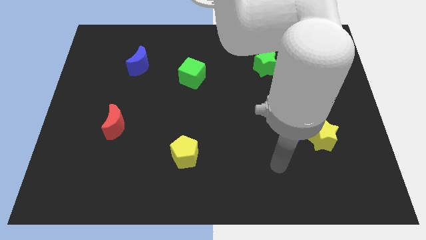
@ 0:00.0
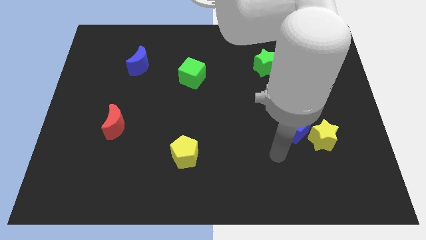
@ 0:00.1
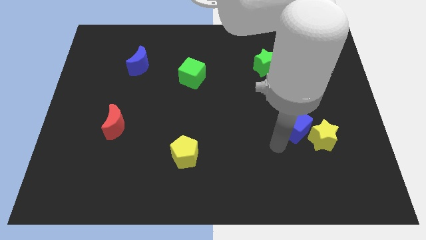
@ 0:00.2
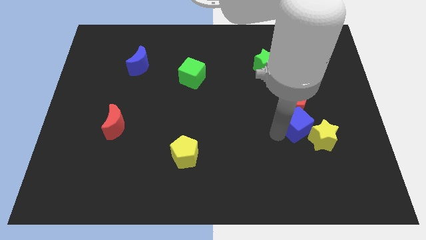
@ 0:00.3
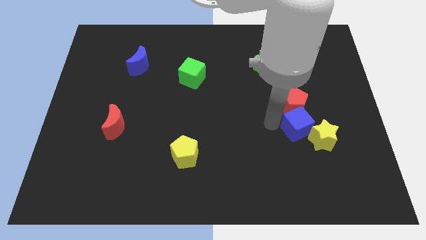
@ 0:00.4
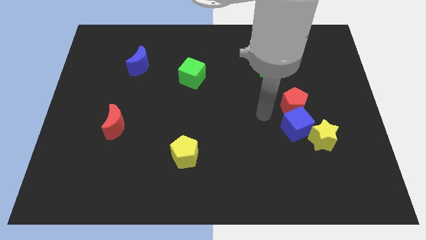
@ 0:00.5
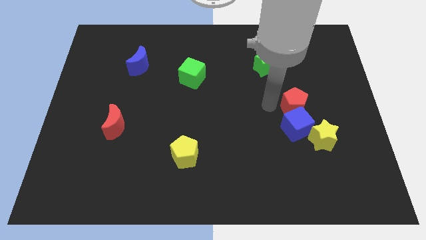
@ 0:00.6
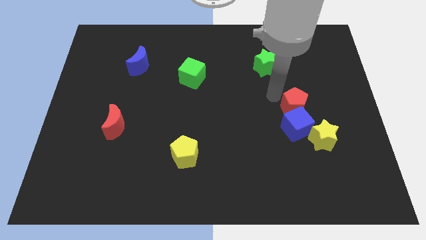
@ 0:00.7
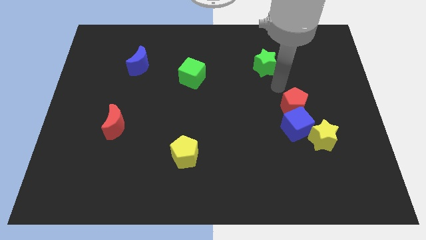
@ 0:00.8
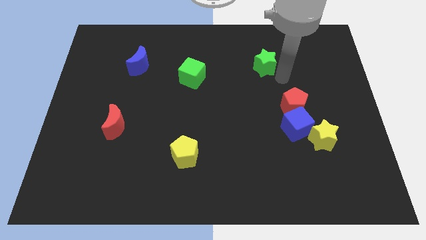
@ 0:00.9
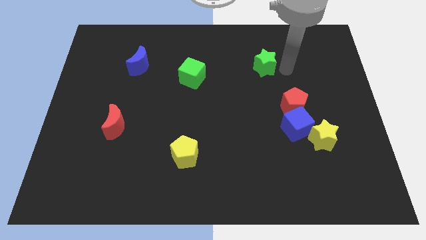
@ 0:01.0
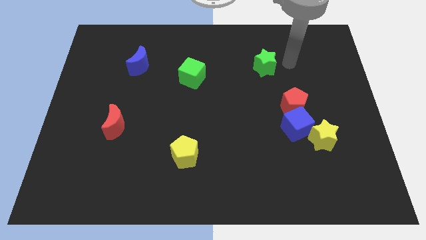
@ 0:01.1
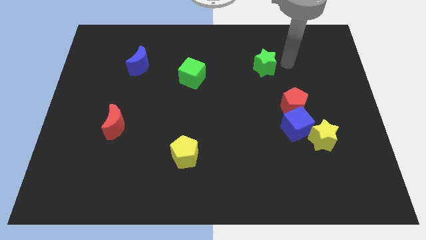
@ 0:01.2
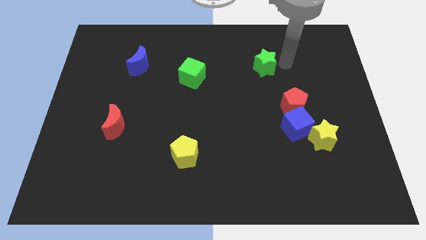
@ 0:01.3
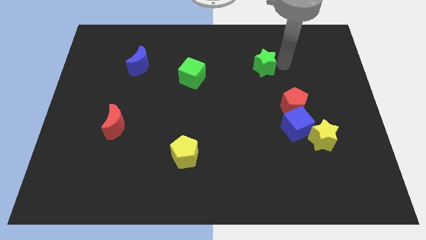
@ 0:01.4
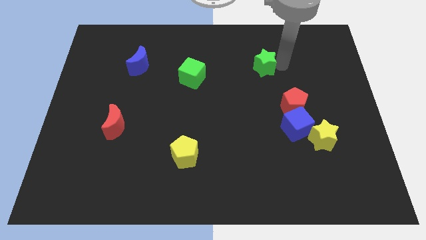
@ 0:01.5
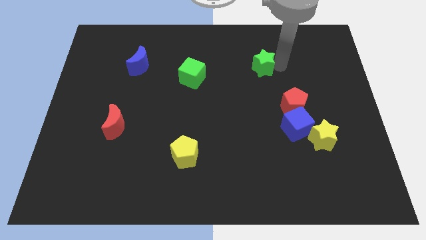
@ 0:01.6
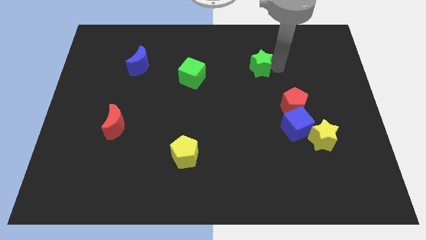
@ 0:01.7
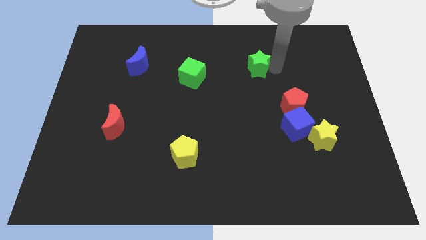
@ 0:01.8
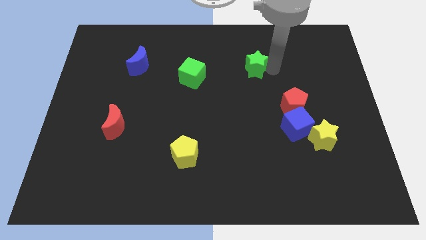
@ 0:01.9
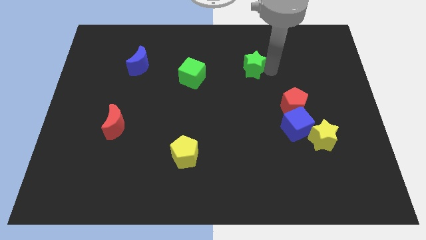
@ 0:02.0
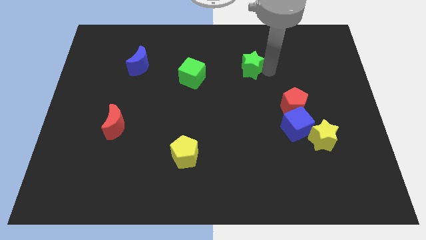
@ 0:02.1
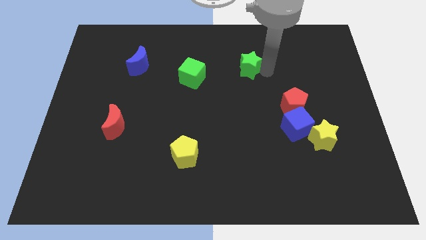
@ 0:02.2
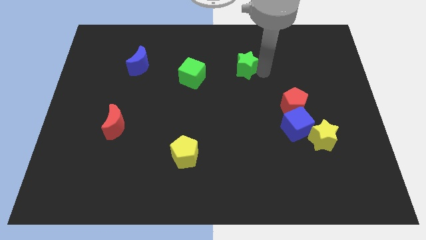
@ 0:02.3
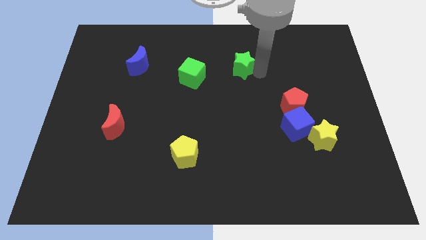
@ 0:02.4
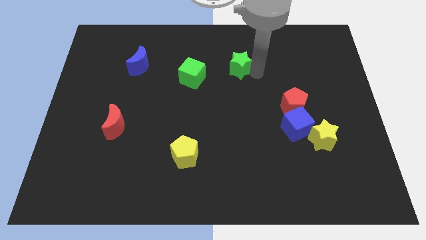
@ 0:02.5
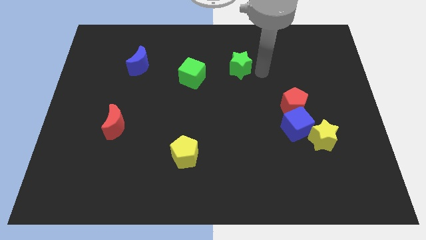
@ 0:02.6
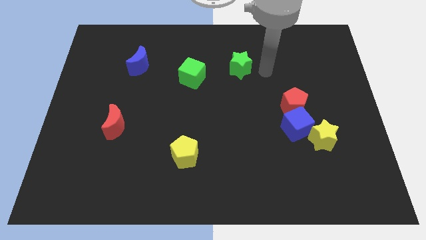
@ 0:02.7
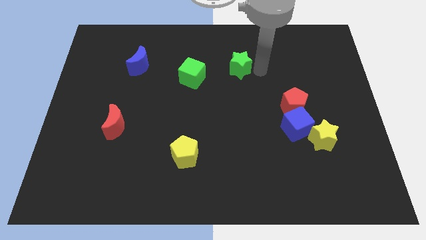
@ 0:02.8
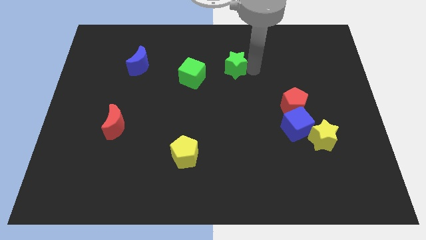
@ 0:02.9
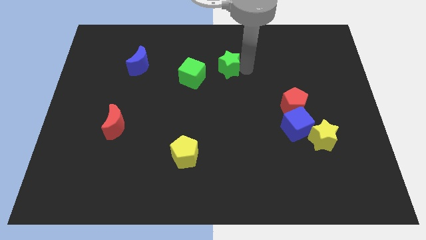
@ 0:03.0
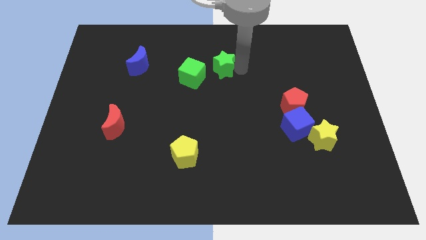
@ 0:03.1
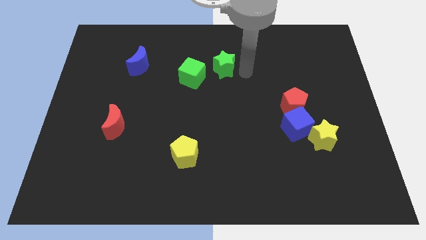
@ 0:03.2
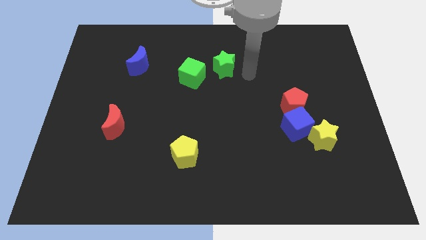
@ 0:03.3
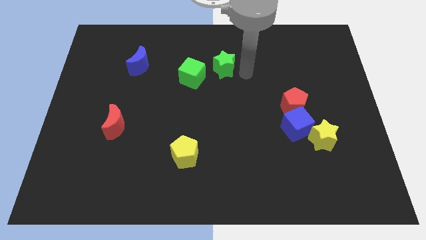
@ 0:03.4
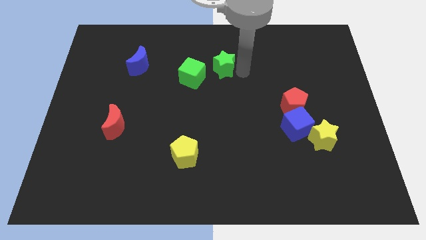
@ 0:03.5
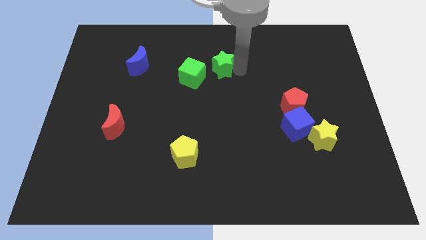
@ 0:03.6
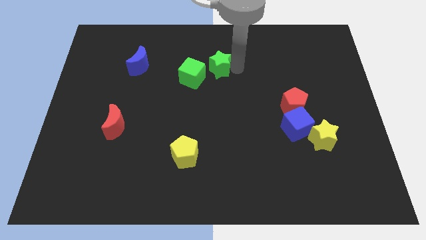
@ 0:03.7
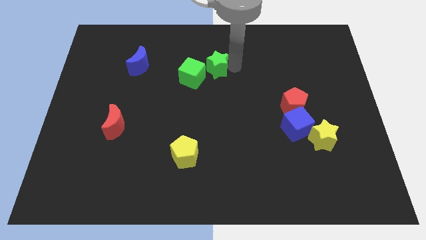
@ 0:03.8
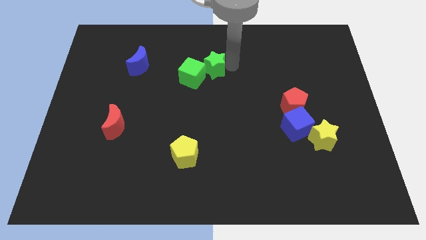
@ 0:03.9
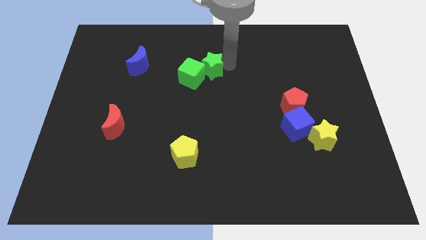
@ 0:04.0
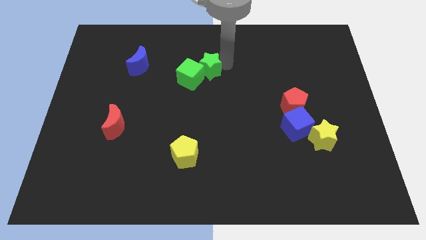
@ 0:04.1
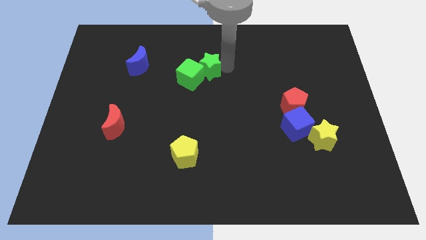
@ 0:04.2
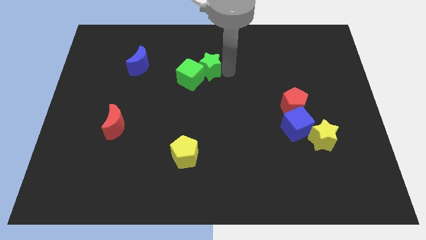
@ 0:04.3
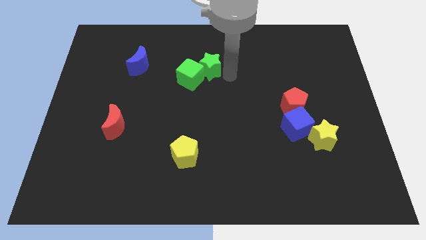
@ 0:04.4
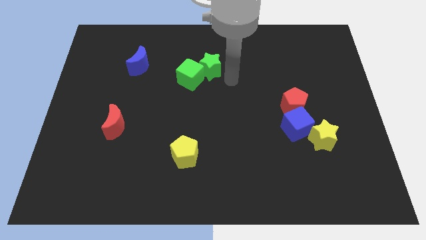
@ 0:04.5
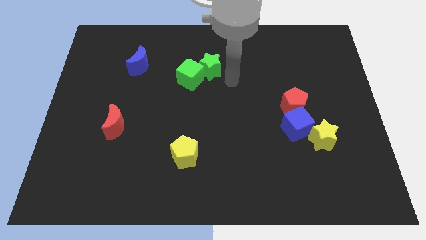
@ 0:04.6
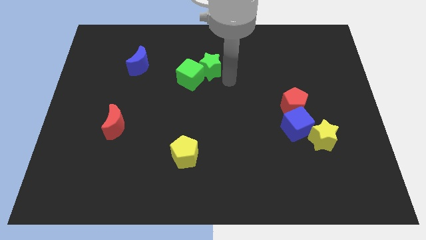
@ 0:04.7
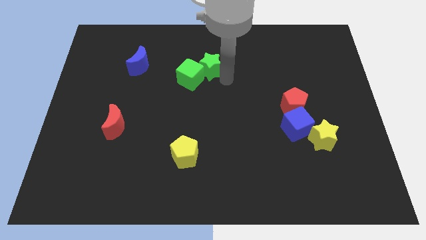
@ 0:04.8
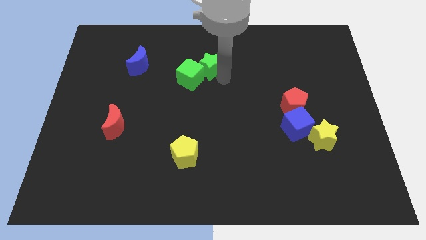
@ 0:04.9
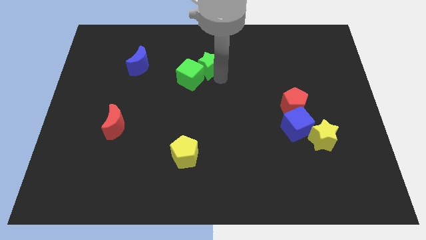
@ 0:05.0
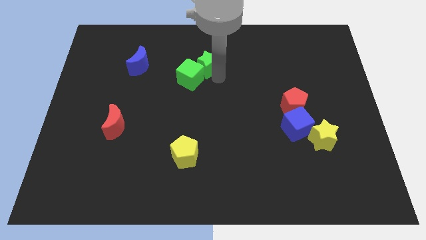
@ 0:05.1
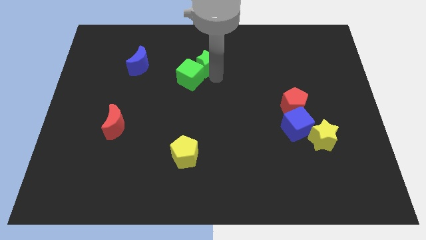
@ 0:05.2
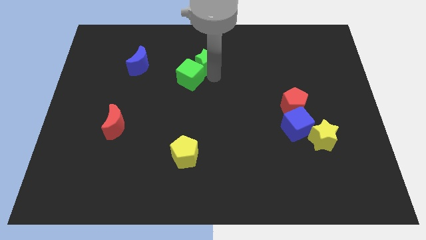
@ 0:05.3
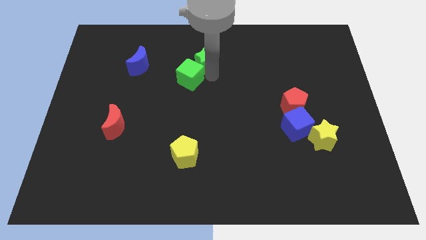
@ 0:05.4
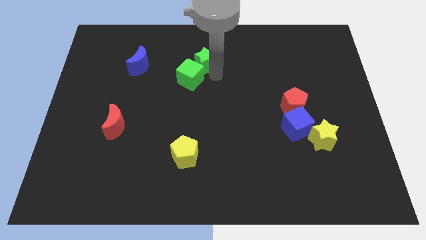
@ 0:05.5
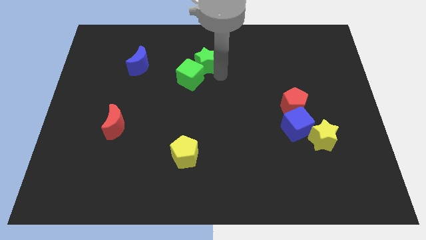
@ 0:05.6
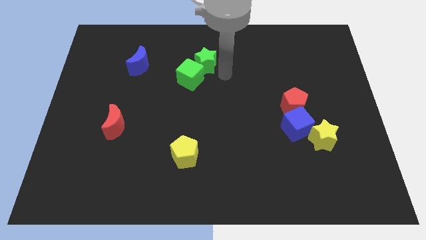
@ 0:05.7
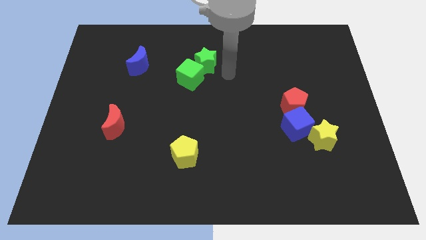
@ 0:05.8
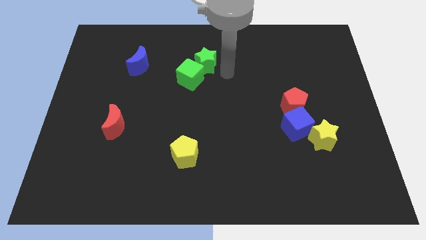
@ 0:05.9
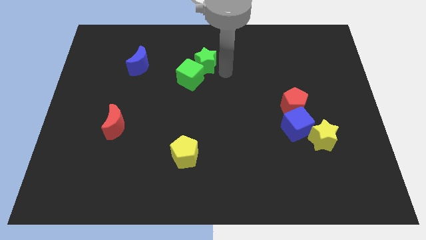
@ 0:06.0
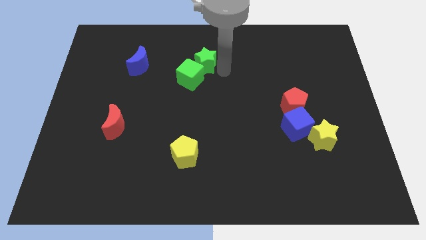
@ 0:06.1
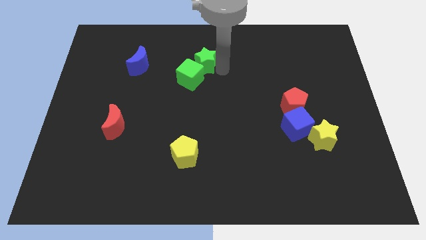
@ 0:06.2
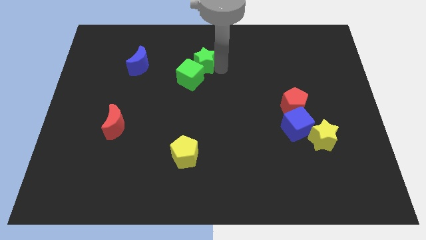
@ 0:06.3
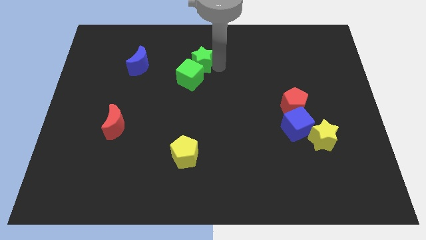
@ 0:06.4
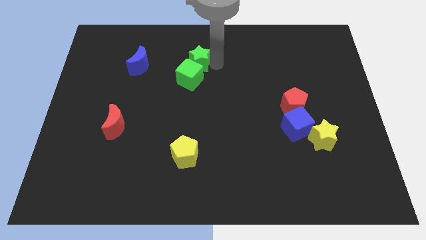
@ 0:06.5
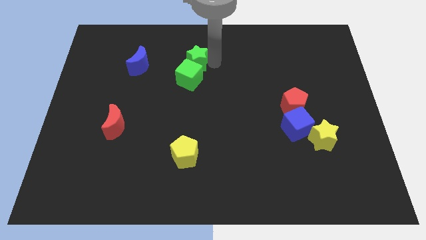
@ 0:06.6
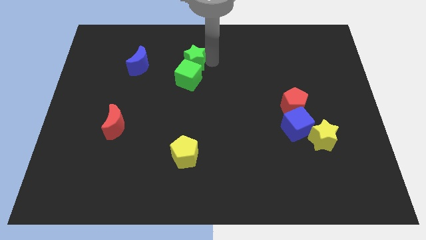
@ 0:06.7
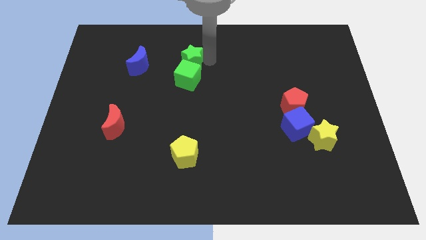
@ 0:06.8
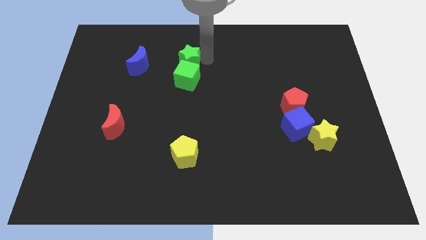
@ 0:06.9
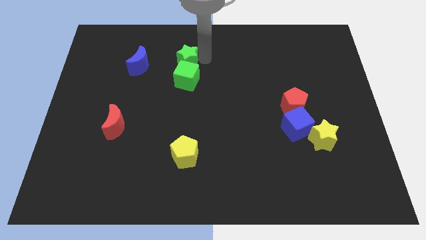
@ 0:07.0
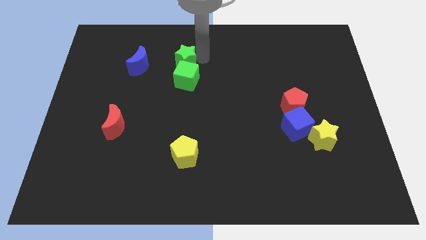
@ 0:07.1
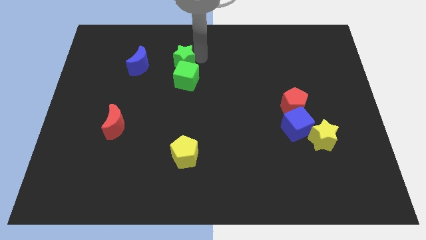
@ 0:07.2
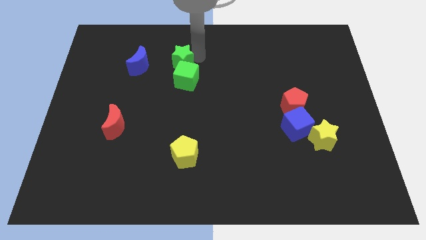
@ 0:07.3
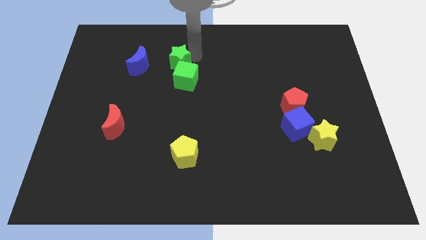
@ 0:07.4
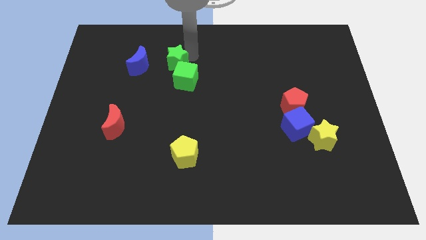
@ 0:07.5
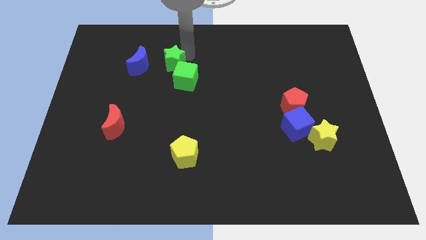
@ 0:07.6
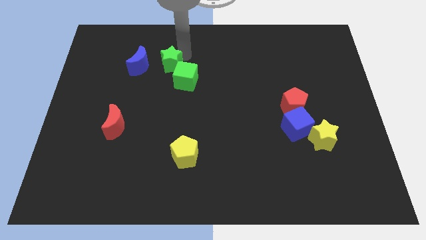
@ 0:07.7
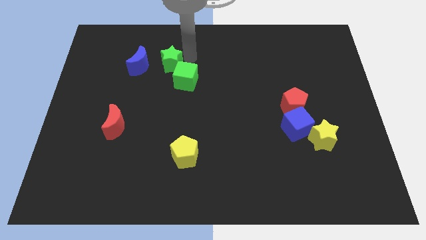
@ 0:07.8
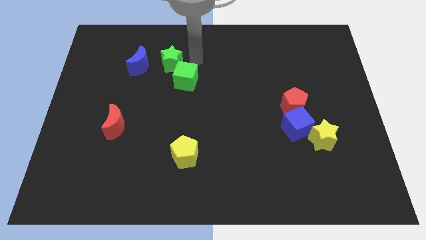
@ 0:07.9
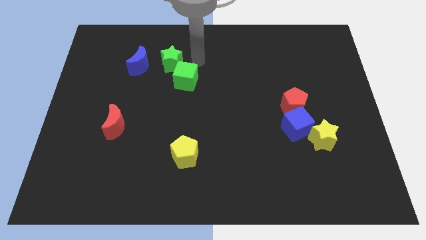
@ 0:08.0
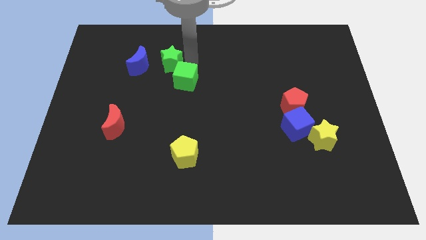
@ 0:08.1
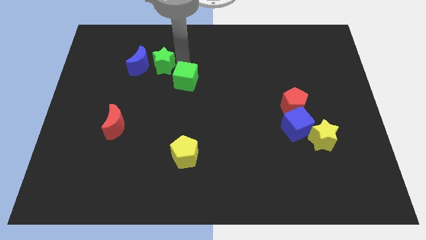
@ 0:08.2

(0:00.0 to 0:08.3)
push the green star to the blue moon
